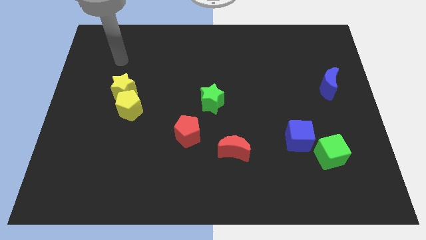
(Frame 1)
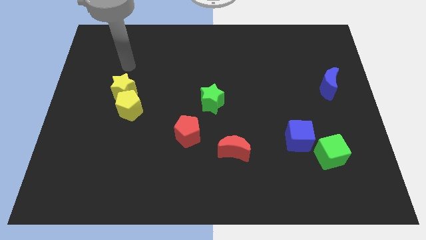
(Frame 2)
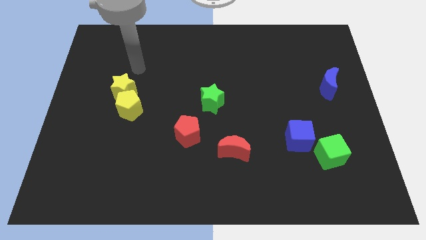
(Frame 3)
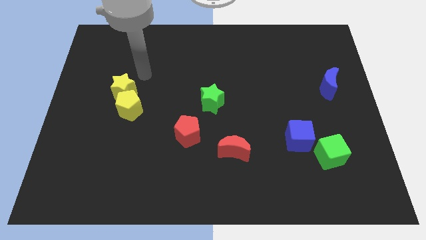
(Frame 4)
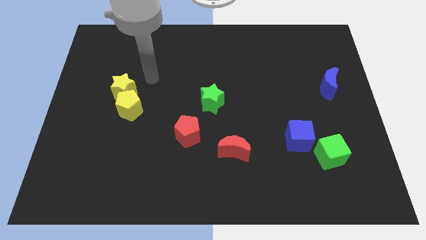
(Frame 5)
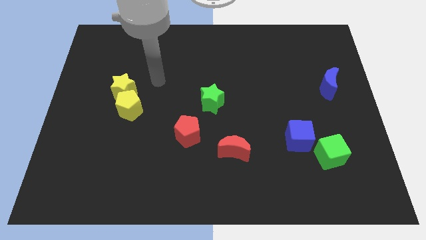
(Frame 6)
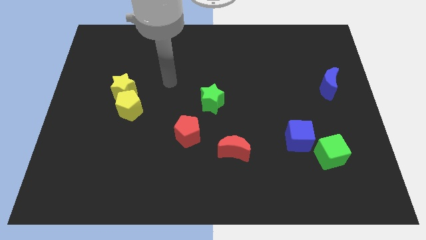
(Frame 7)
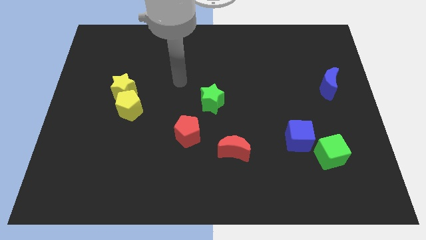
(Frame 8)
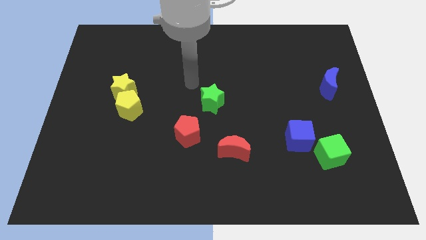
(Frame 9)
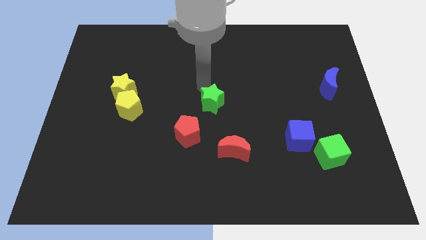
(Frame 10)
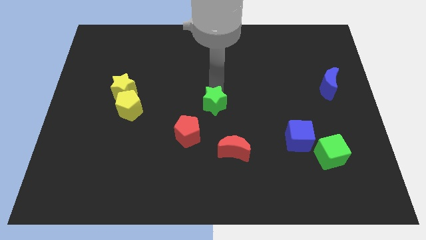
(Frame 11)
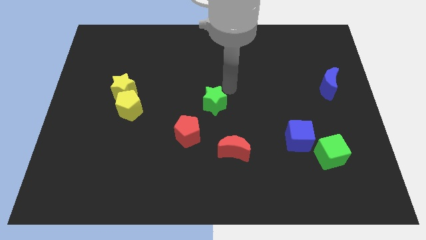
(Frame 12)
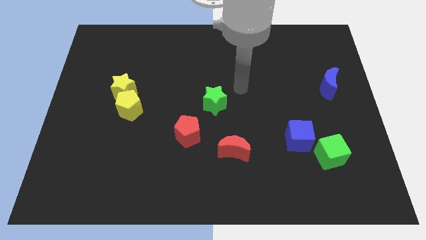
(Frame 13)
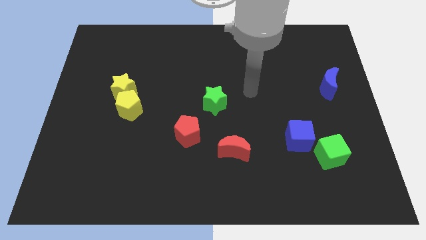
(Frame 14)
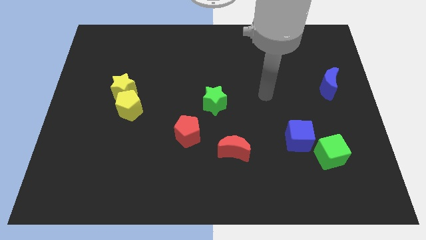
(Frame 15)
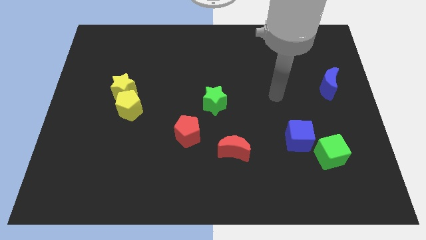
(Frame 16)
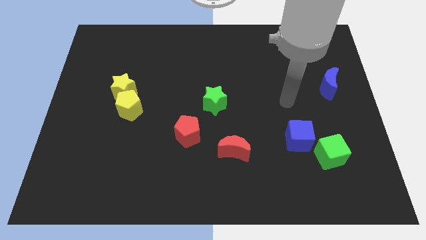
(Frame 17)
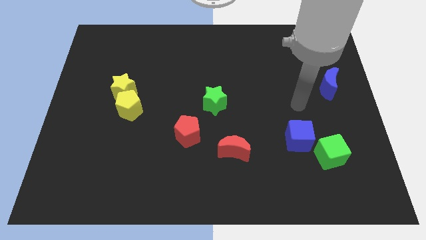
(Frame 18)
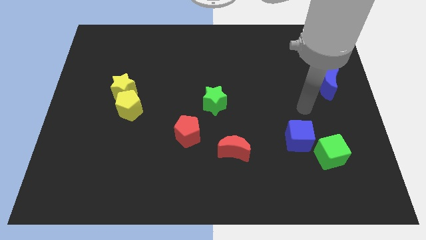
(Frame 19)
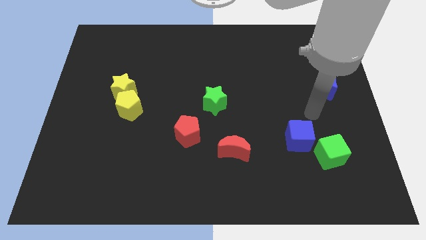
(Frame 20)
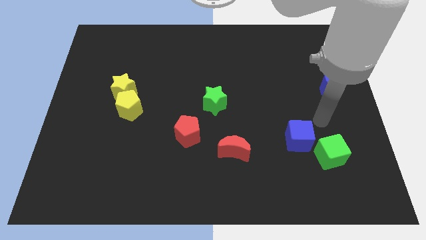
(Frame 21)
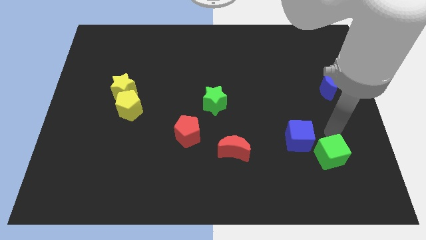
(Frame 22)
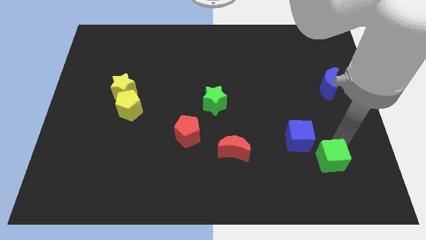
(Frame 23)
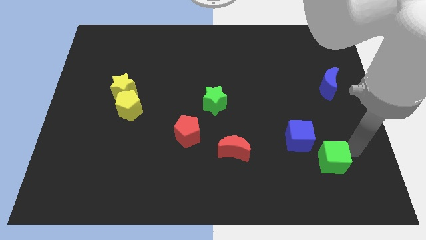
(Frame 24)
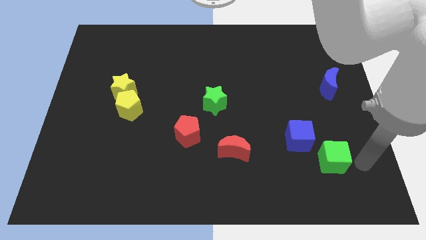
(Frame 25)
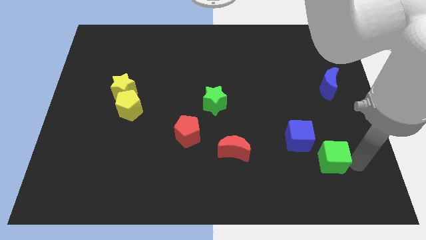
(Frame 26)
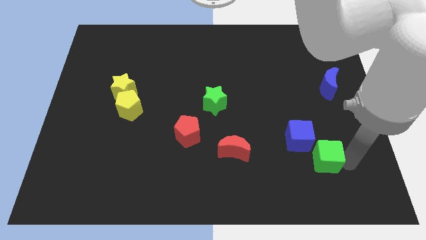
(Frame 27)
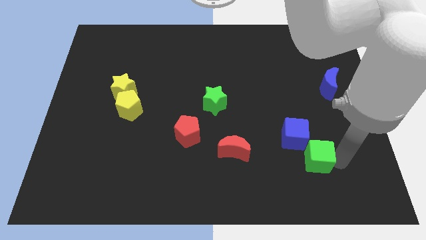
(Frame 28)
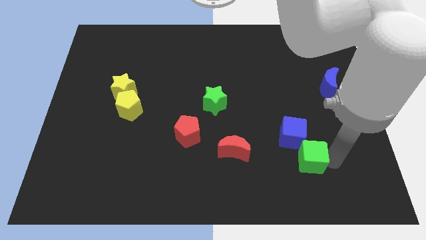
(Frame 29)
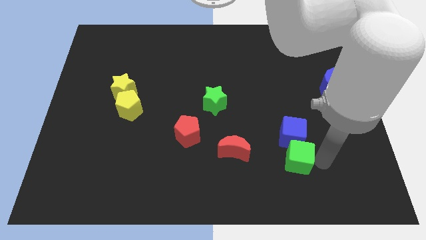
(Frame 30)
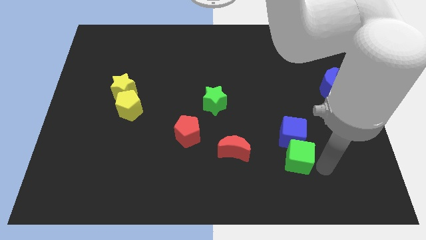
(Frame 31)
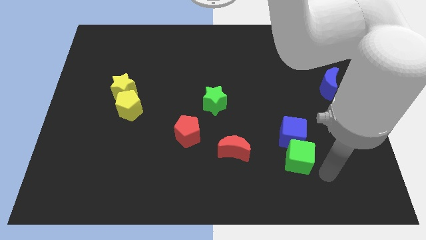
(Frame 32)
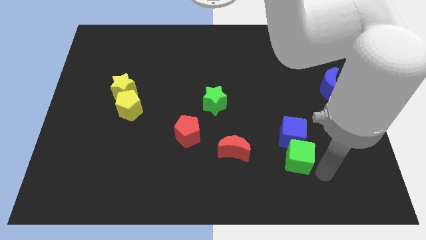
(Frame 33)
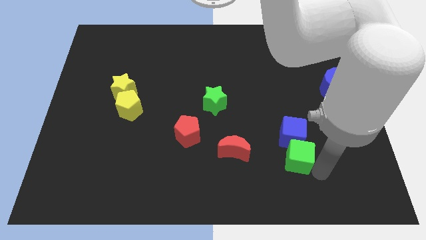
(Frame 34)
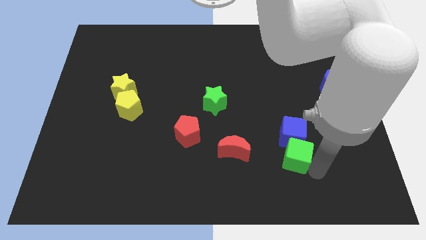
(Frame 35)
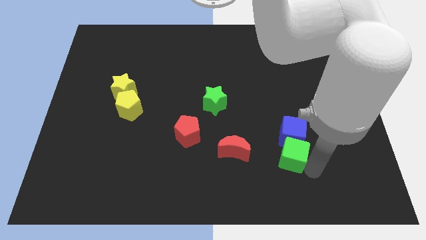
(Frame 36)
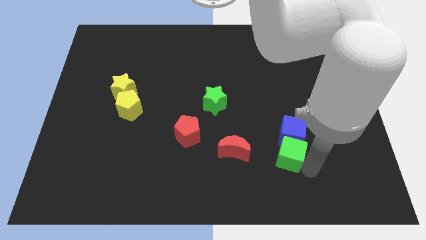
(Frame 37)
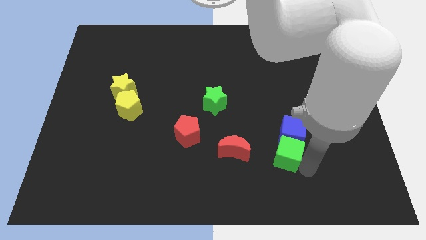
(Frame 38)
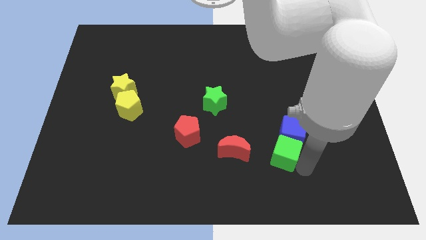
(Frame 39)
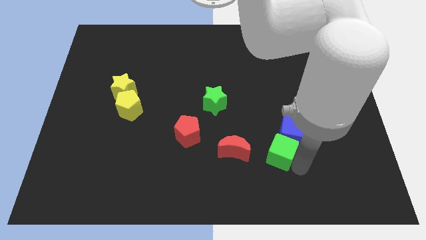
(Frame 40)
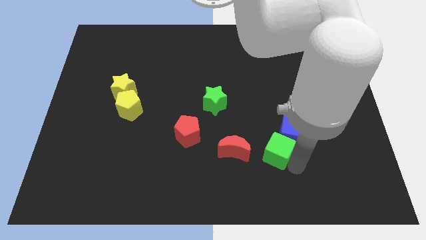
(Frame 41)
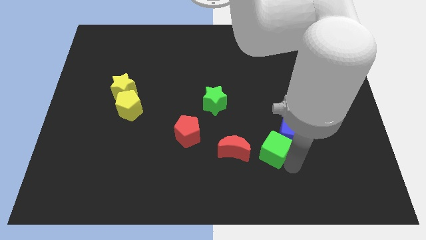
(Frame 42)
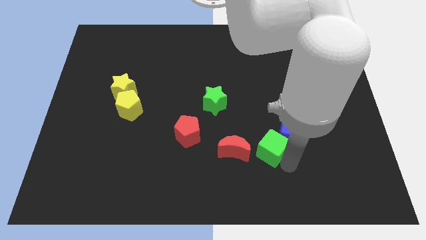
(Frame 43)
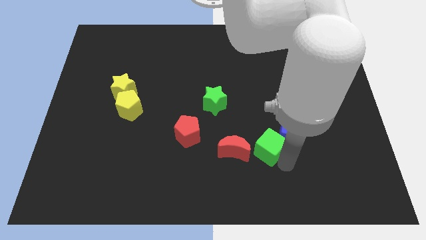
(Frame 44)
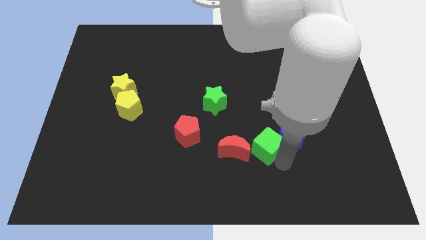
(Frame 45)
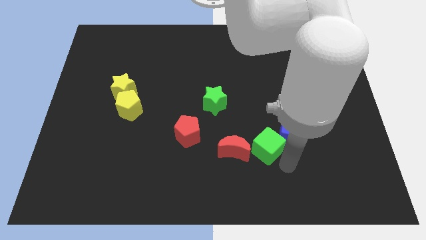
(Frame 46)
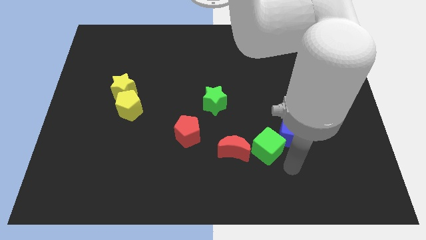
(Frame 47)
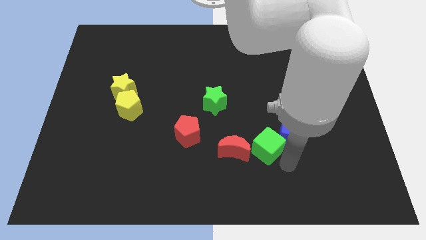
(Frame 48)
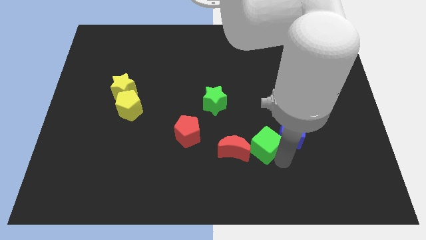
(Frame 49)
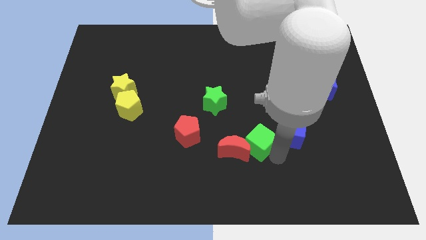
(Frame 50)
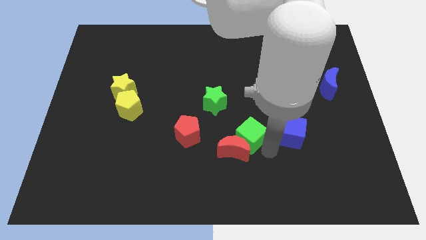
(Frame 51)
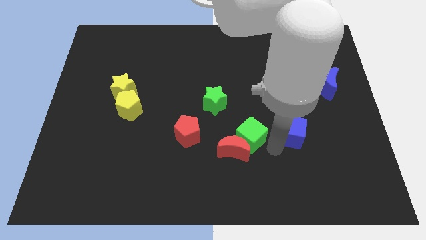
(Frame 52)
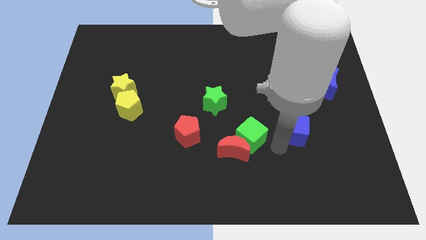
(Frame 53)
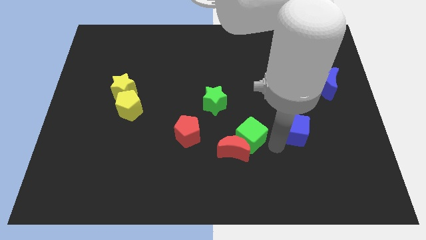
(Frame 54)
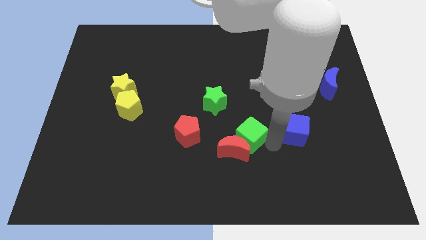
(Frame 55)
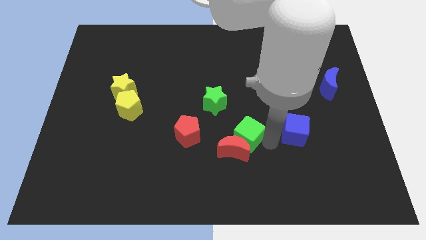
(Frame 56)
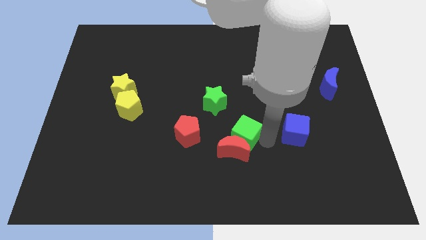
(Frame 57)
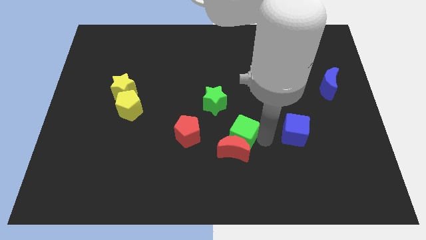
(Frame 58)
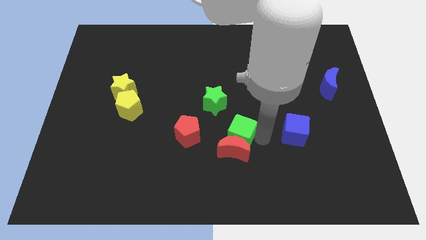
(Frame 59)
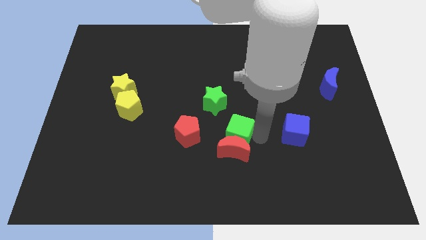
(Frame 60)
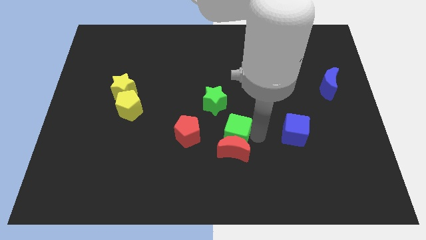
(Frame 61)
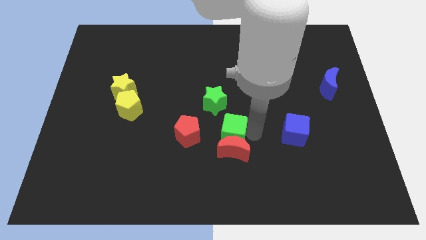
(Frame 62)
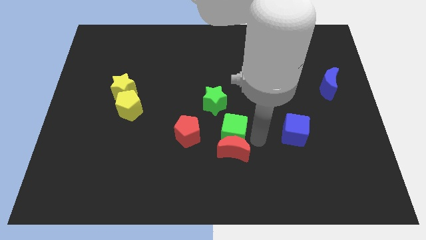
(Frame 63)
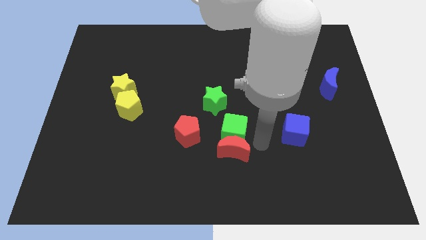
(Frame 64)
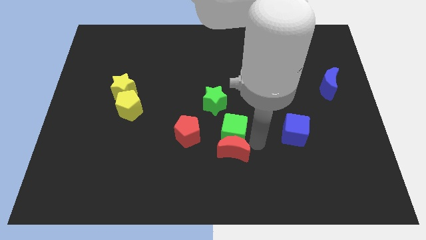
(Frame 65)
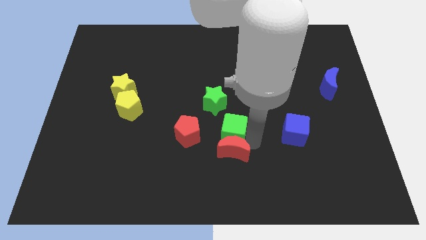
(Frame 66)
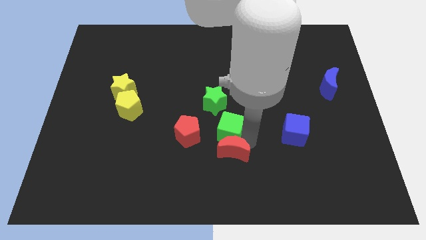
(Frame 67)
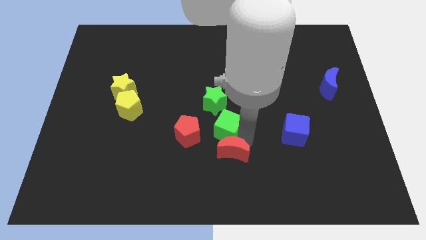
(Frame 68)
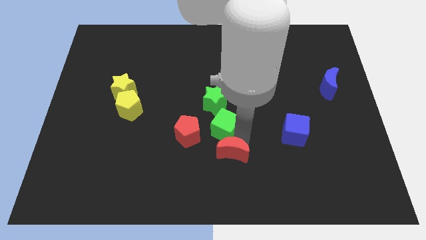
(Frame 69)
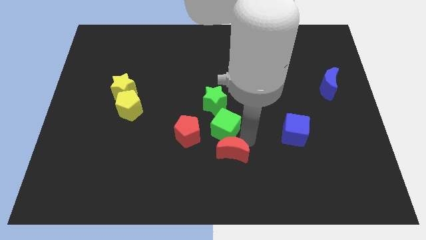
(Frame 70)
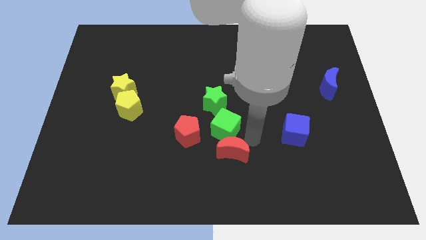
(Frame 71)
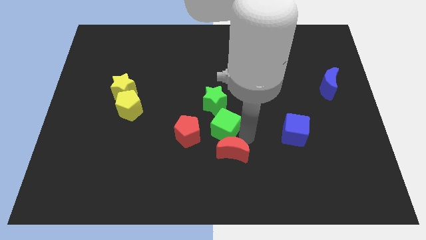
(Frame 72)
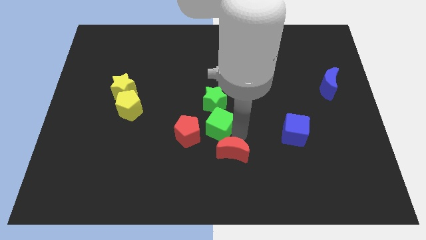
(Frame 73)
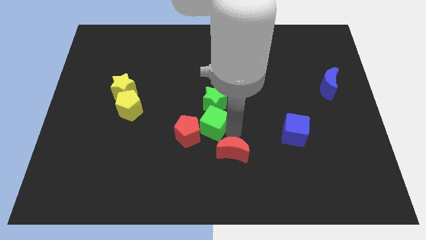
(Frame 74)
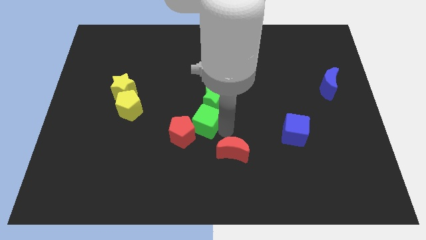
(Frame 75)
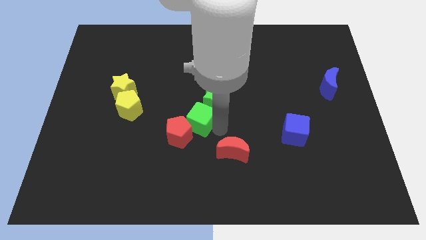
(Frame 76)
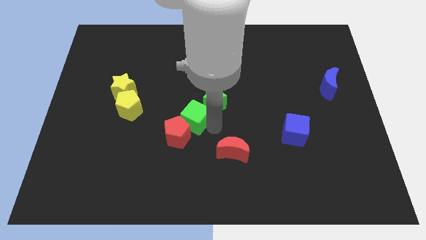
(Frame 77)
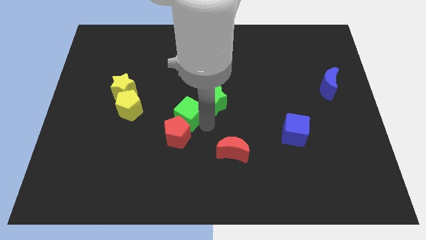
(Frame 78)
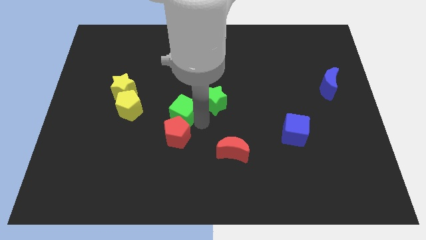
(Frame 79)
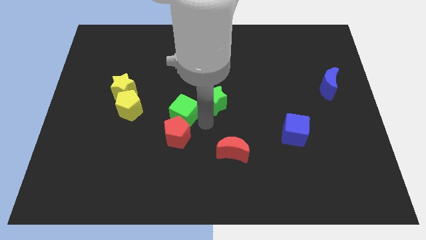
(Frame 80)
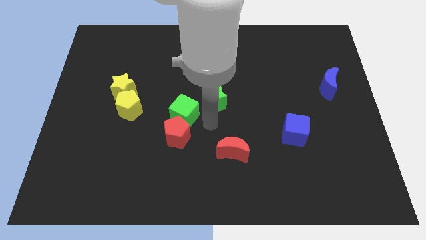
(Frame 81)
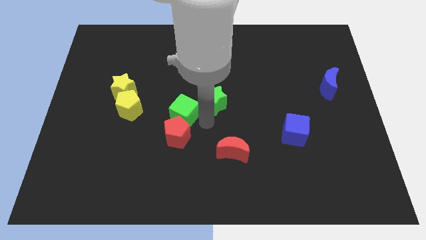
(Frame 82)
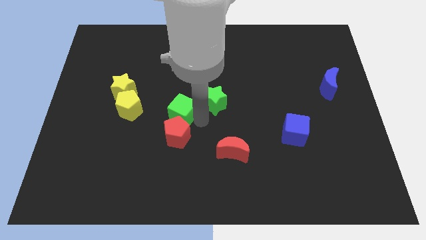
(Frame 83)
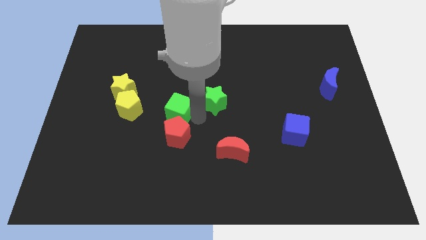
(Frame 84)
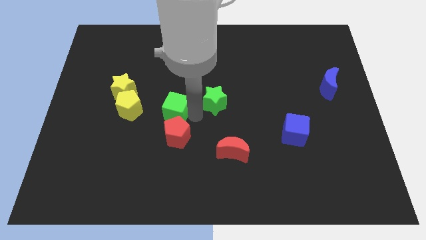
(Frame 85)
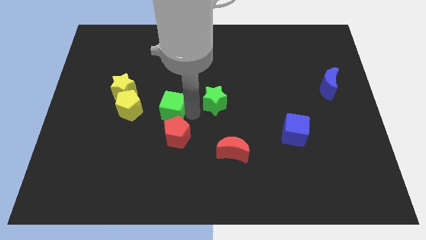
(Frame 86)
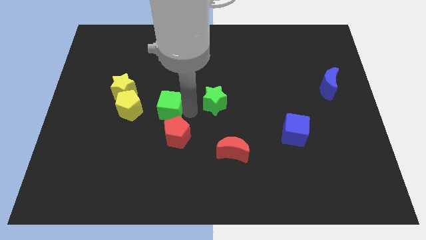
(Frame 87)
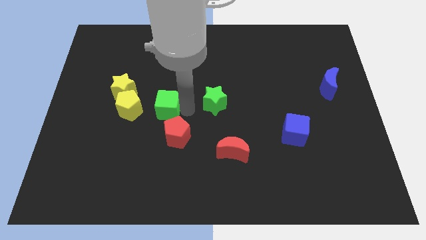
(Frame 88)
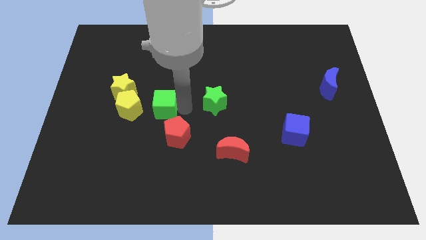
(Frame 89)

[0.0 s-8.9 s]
push the green cube diagonally down and to the right of the yellow star
